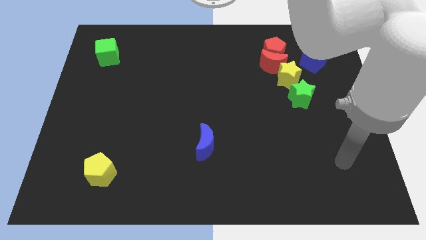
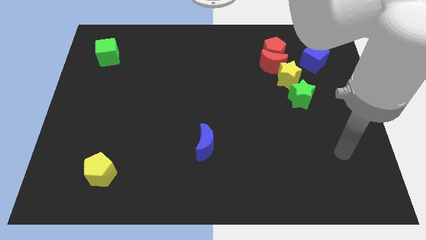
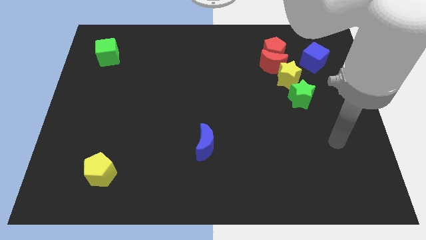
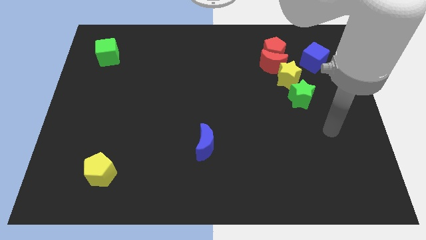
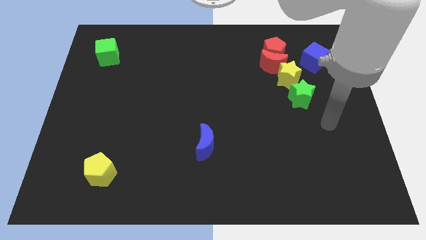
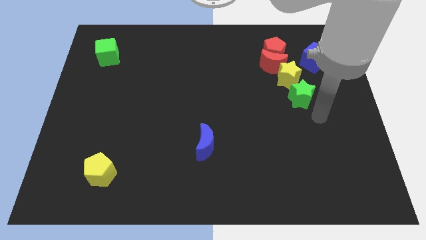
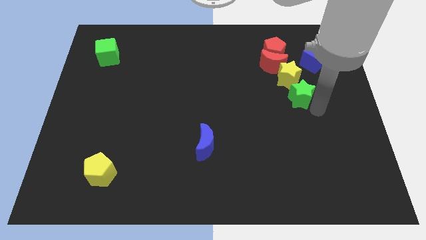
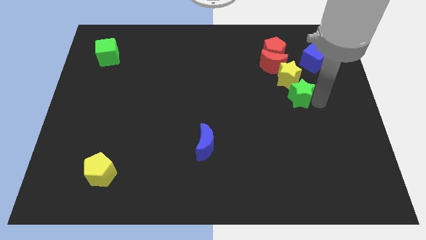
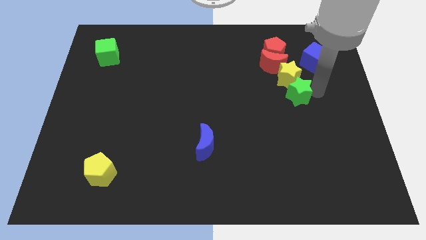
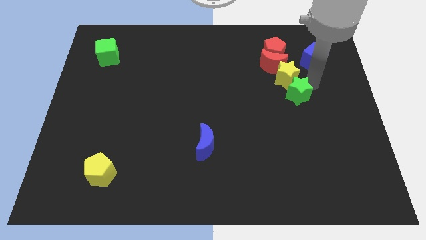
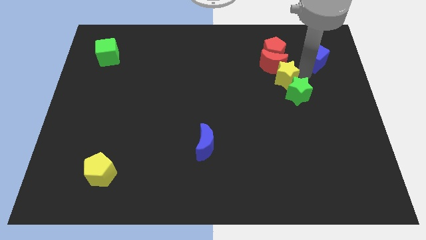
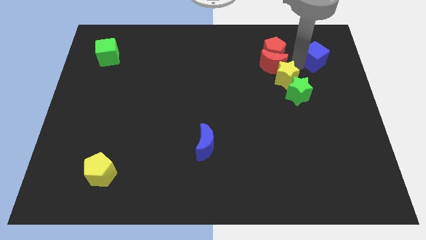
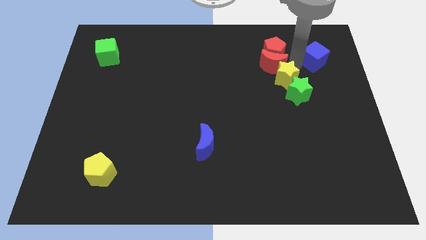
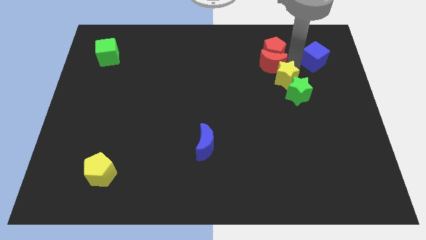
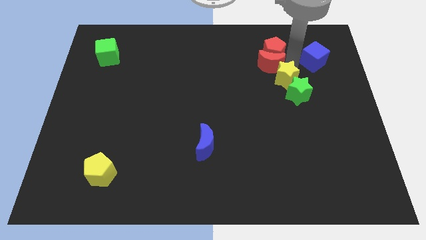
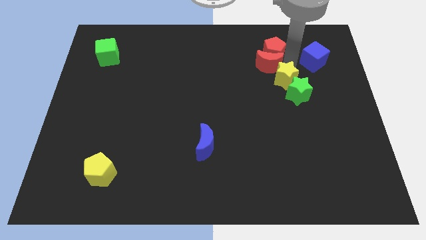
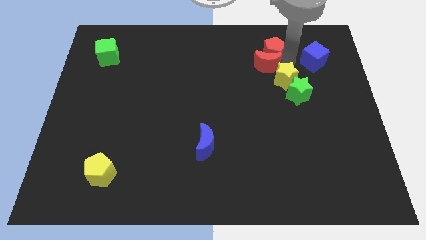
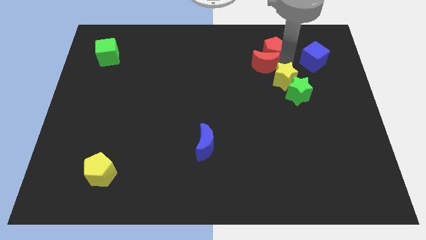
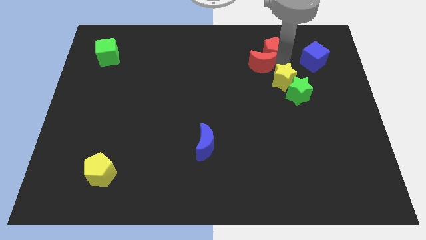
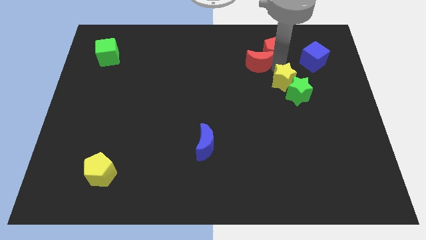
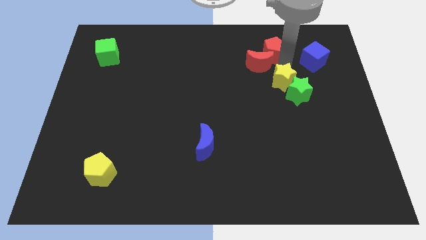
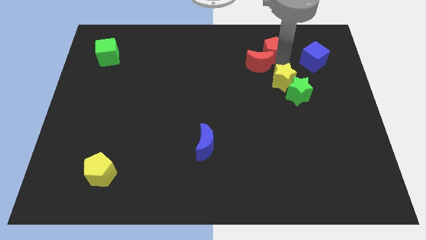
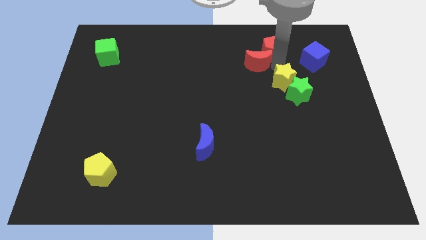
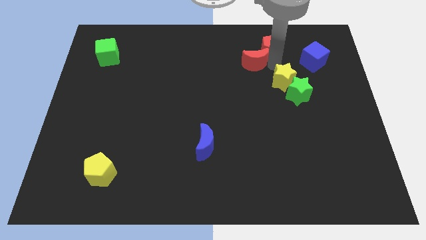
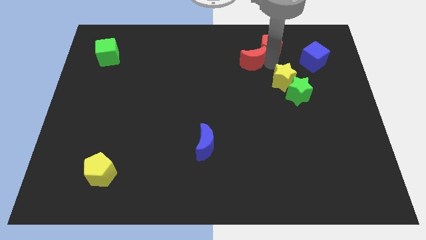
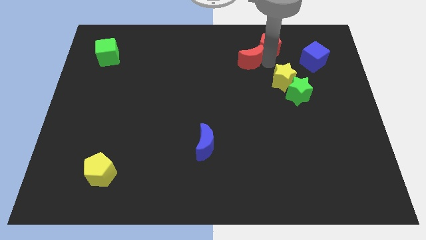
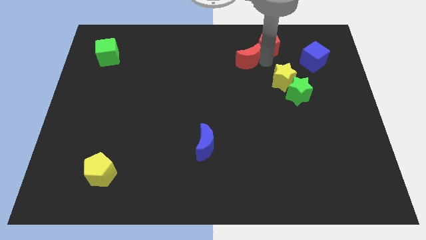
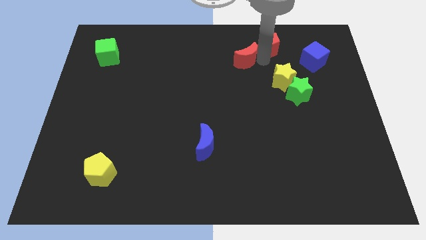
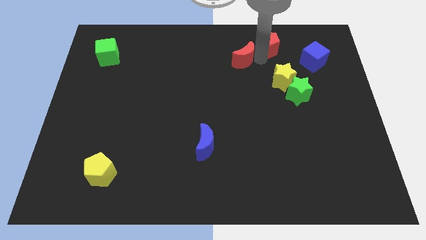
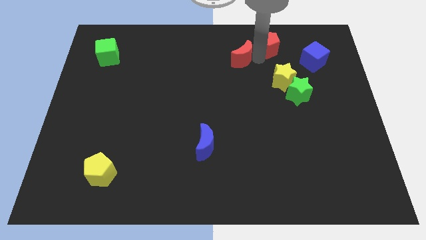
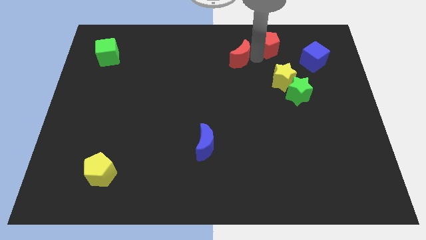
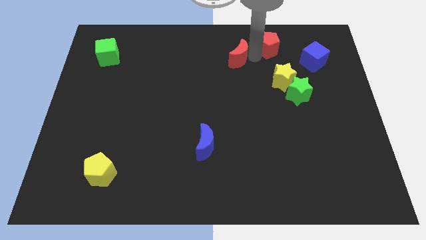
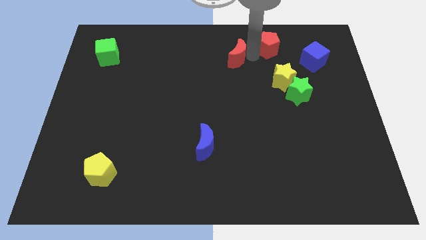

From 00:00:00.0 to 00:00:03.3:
move the red moon away from the red pentagon and yellow star

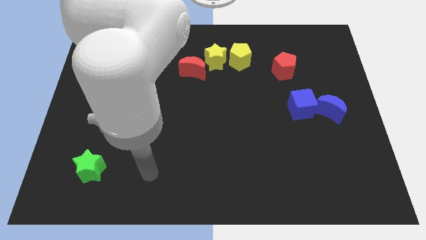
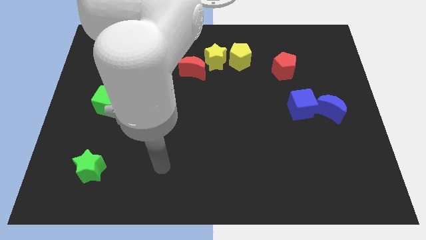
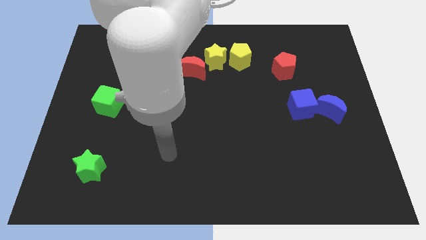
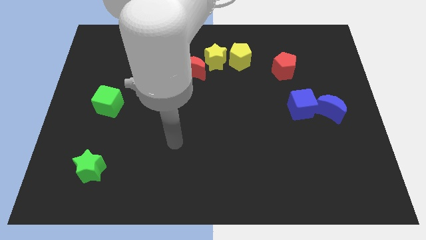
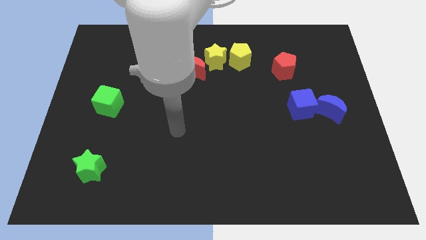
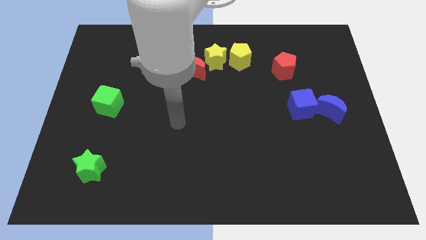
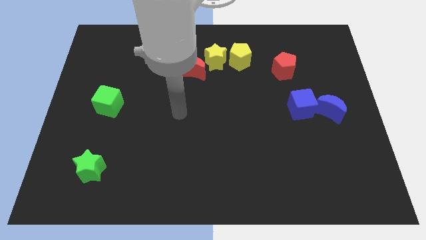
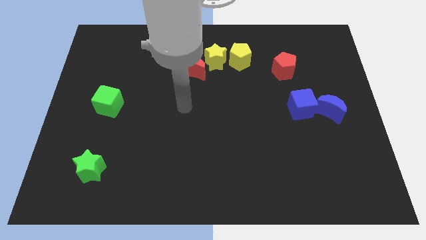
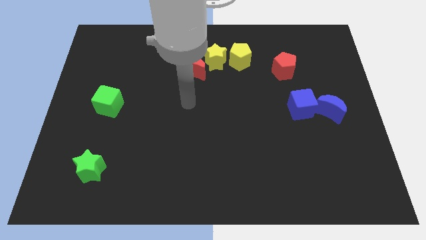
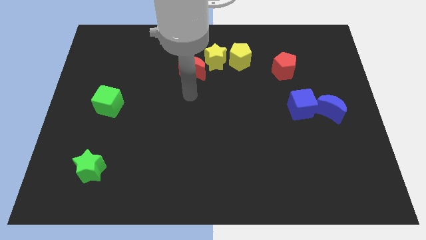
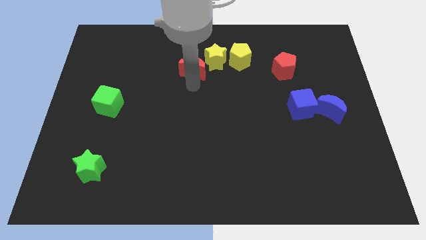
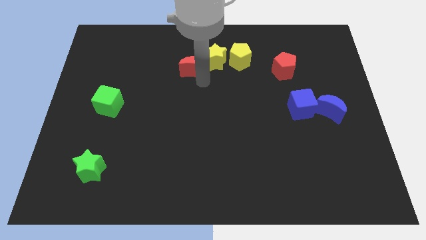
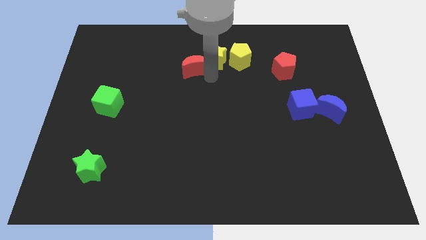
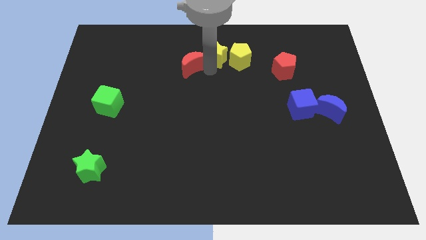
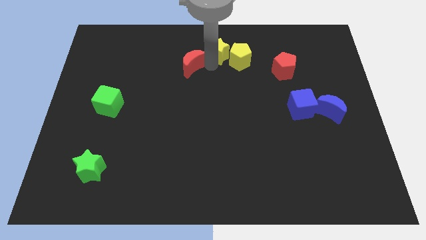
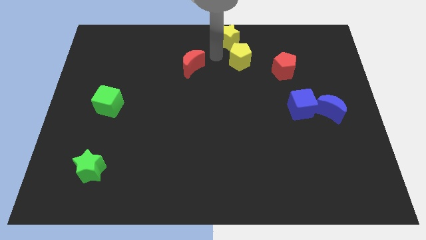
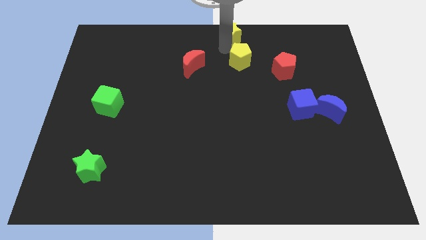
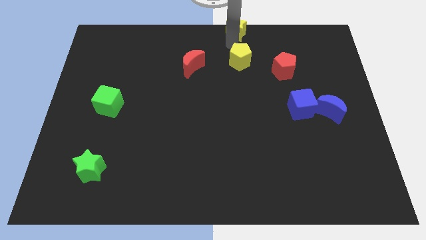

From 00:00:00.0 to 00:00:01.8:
separate the yellow pentagon from the yellow star

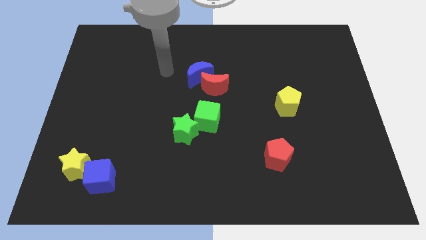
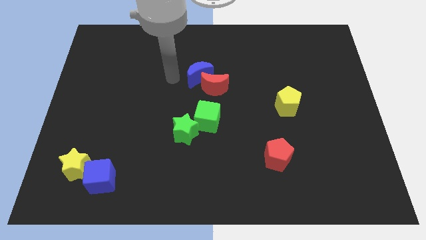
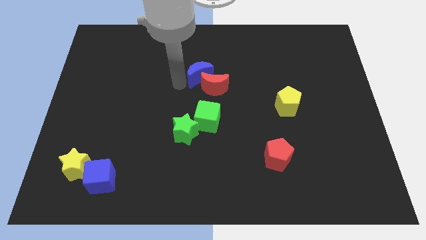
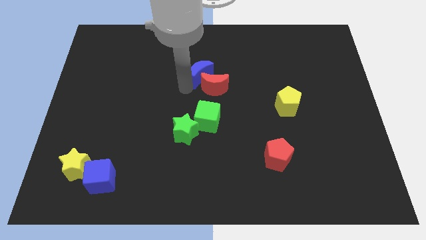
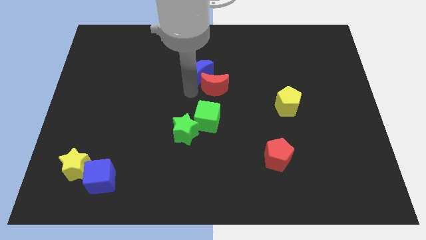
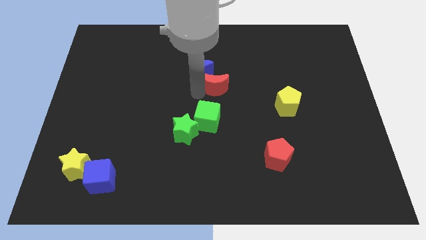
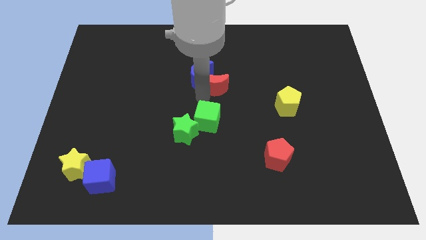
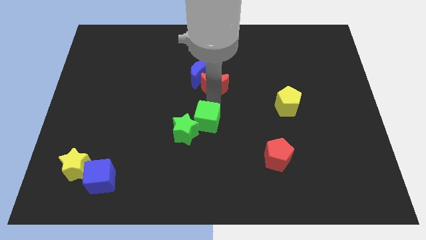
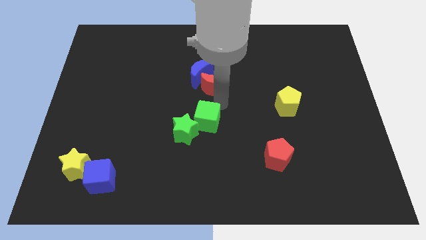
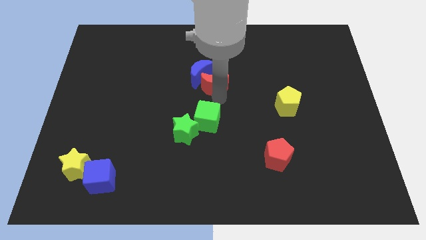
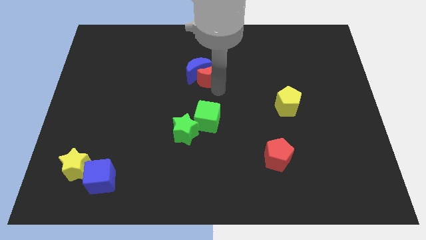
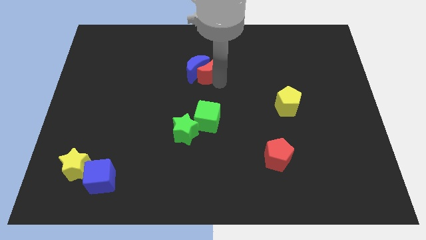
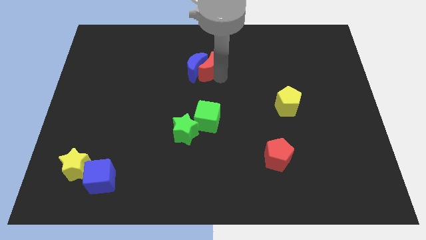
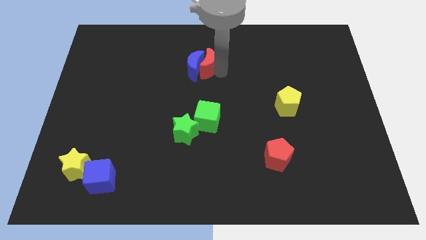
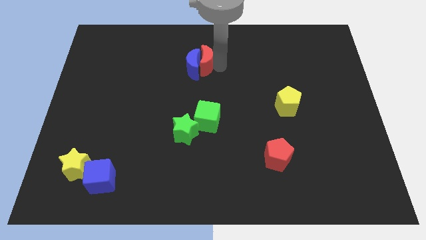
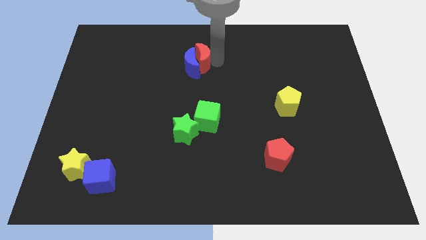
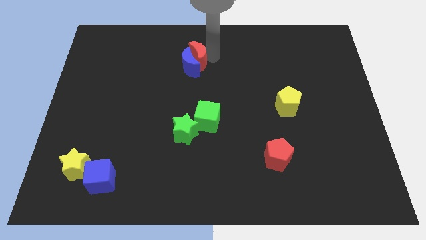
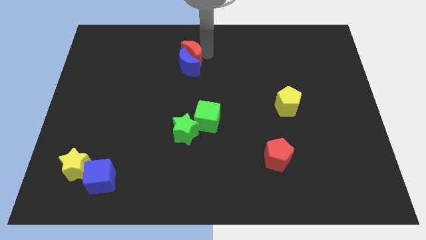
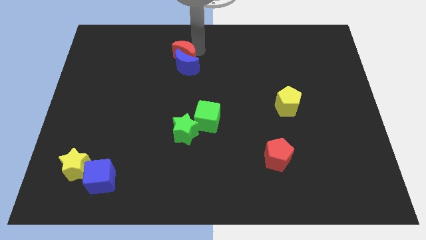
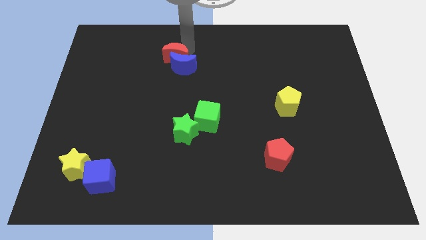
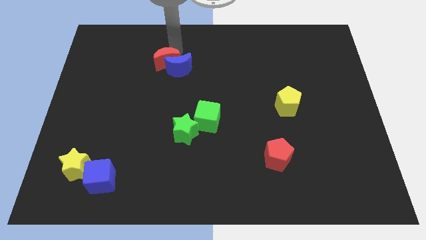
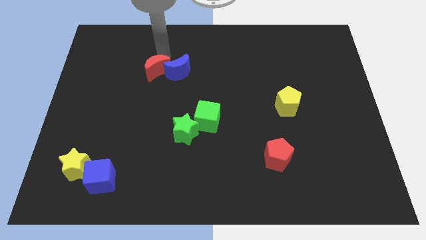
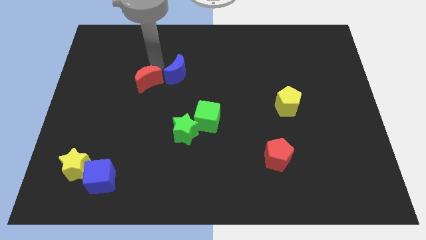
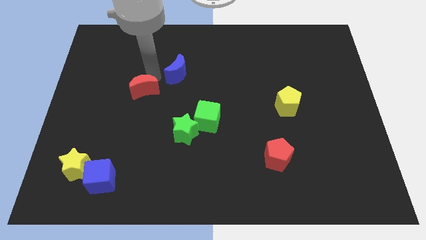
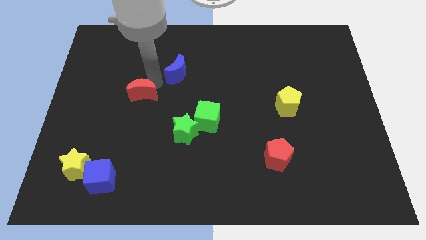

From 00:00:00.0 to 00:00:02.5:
separate the blue moon from the red moon

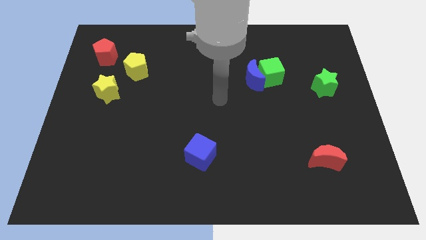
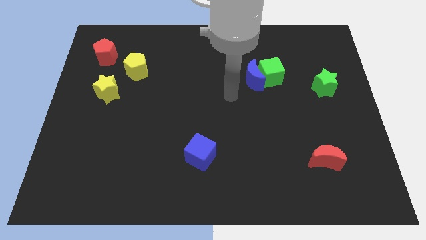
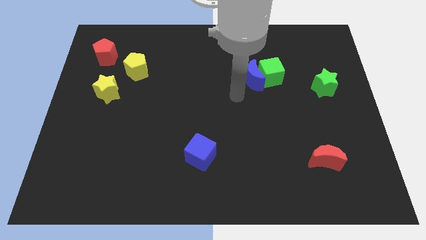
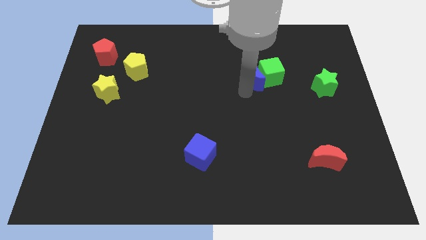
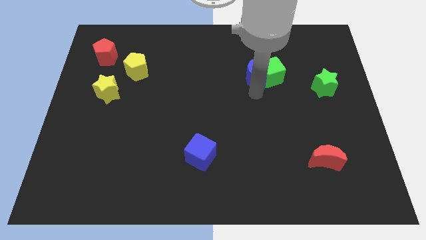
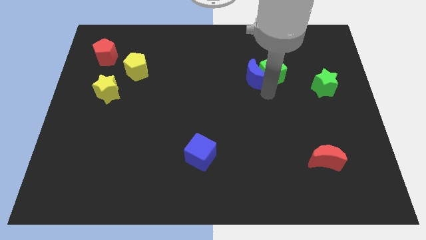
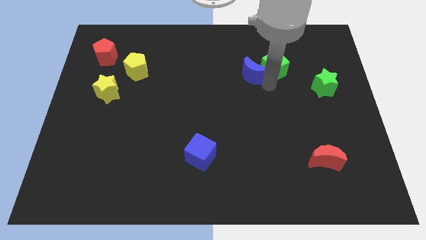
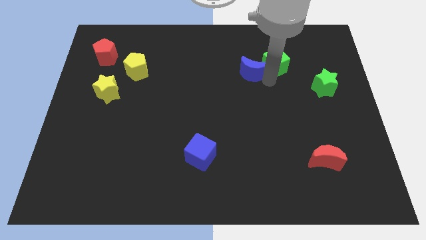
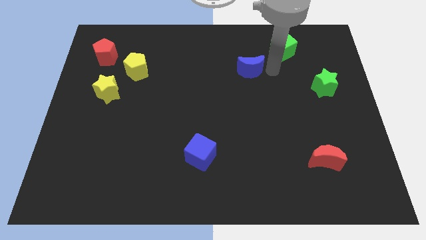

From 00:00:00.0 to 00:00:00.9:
pull the blue moon apart from the green cube

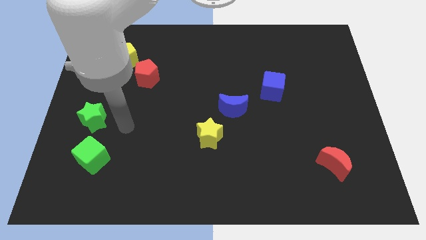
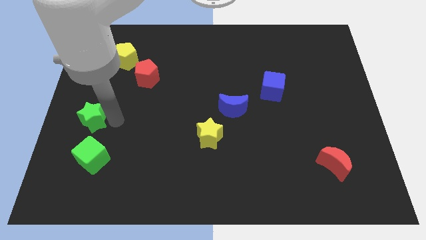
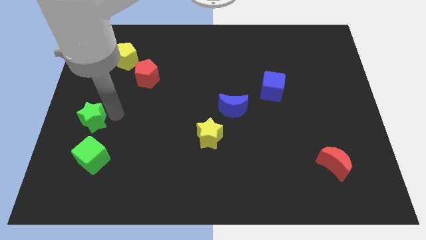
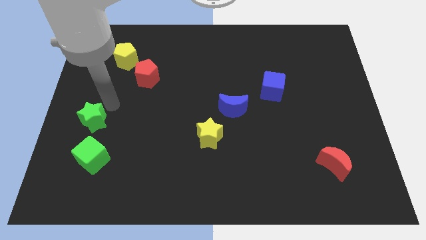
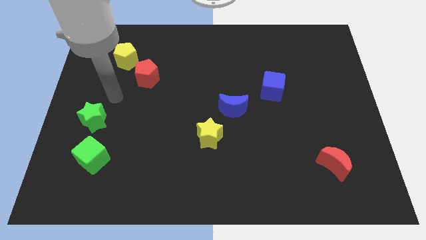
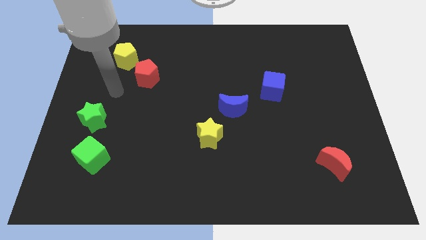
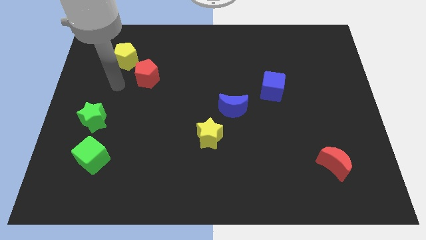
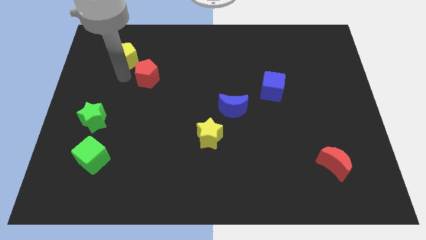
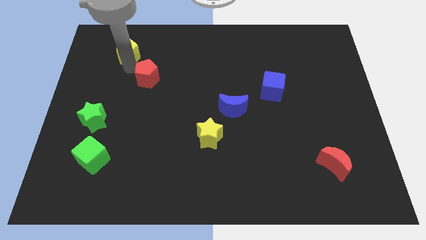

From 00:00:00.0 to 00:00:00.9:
separate the red pentagon from the yellow pentagon
